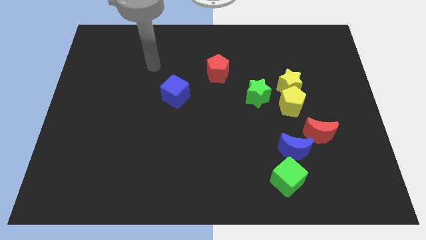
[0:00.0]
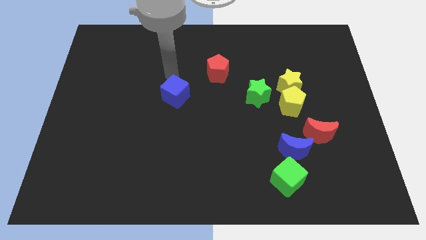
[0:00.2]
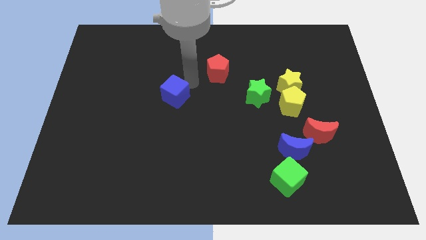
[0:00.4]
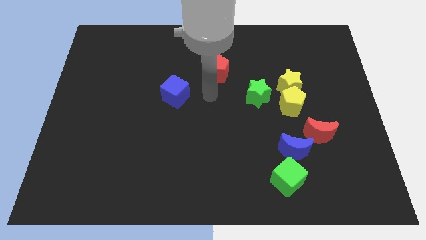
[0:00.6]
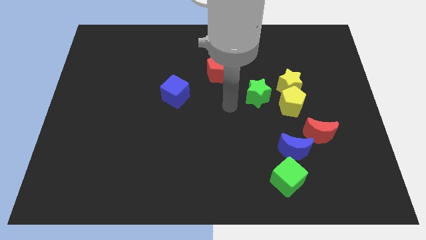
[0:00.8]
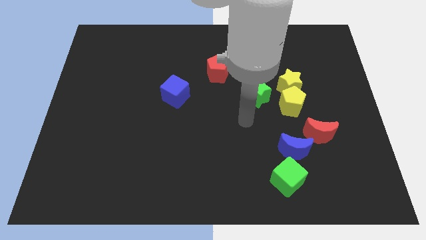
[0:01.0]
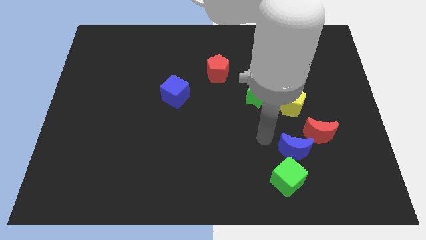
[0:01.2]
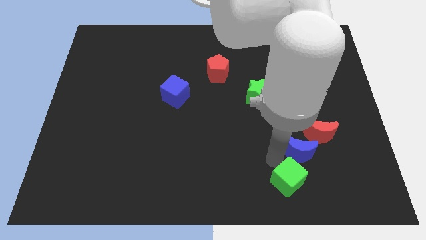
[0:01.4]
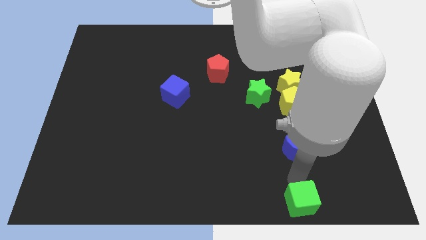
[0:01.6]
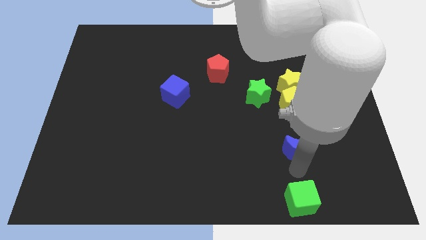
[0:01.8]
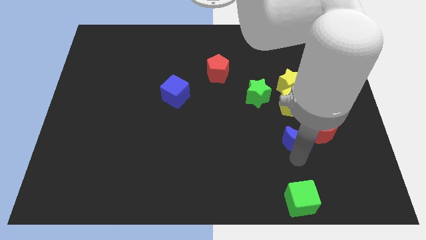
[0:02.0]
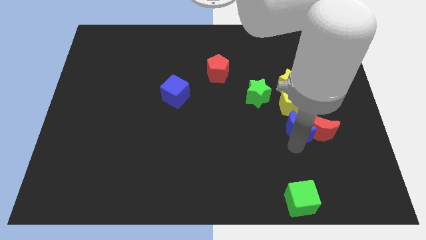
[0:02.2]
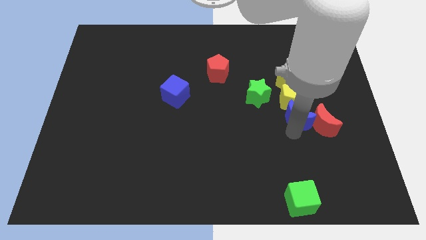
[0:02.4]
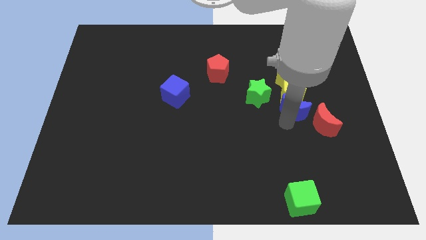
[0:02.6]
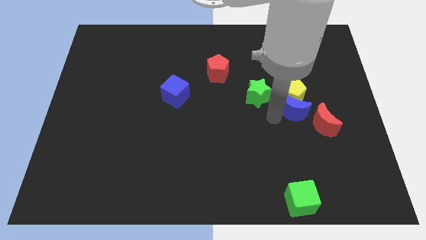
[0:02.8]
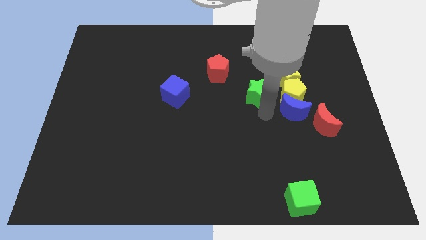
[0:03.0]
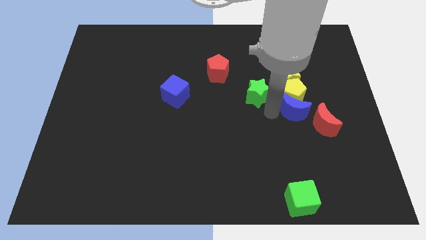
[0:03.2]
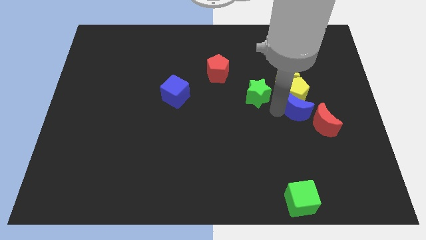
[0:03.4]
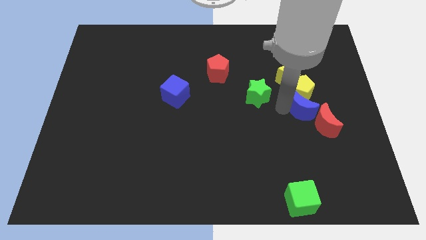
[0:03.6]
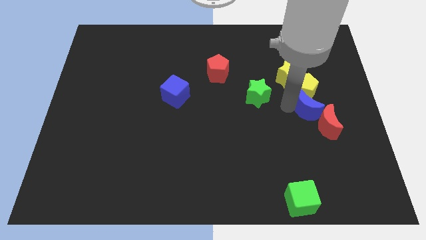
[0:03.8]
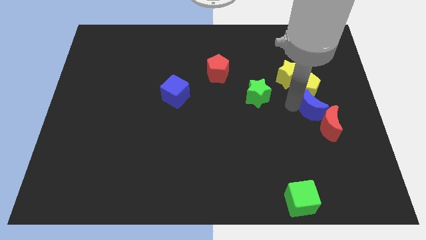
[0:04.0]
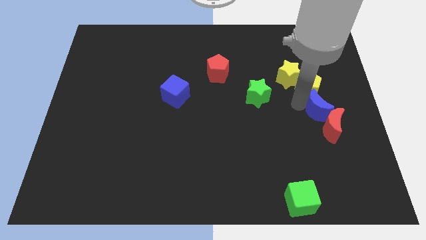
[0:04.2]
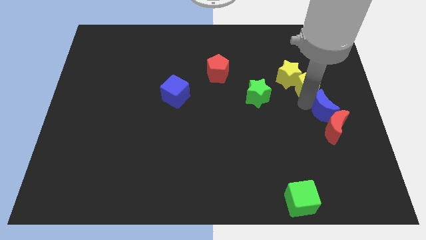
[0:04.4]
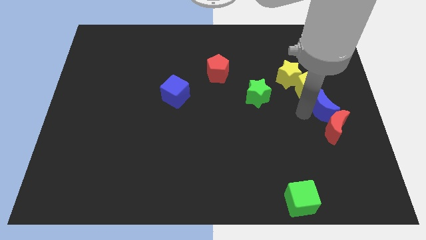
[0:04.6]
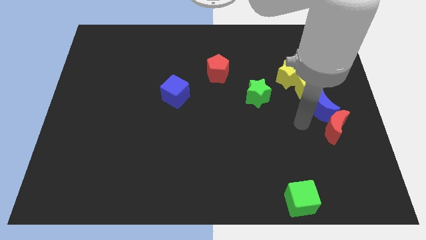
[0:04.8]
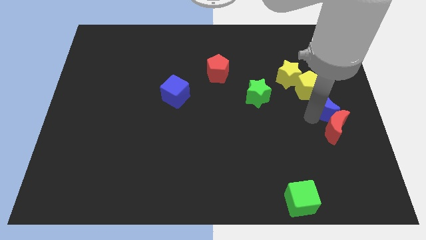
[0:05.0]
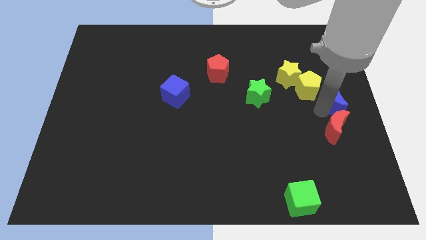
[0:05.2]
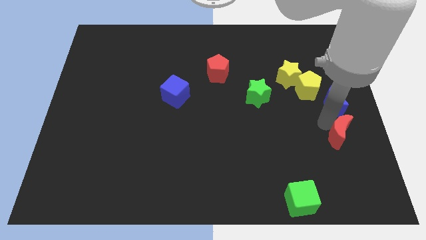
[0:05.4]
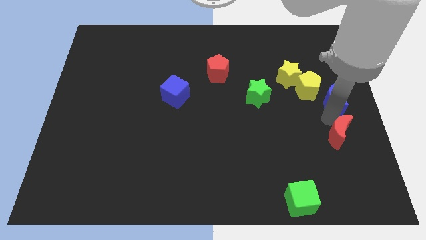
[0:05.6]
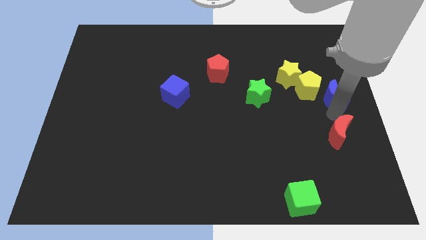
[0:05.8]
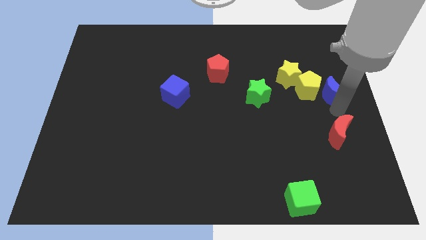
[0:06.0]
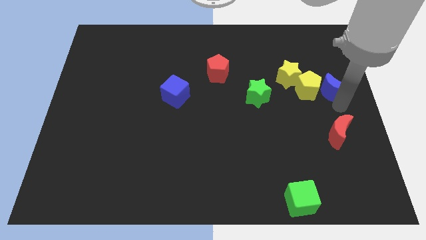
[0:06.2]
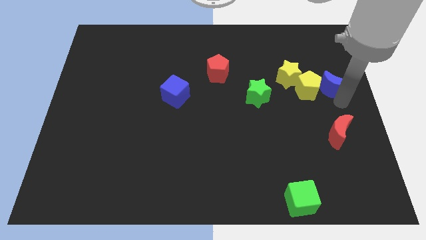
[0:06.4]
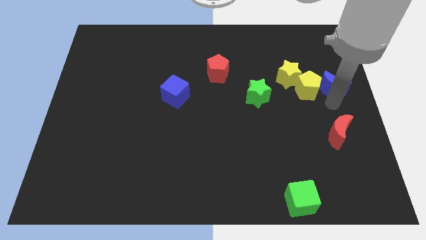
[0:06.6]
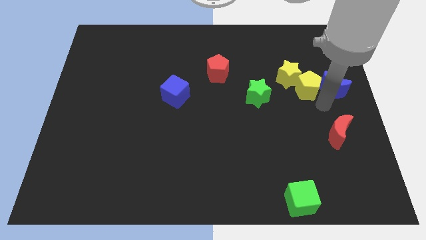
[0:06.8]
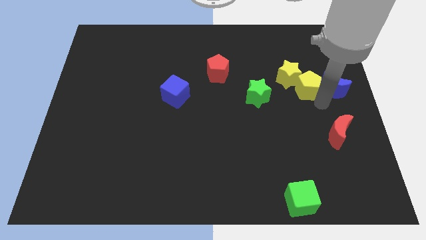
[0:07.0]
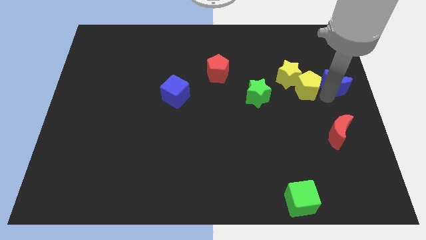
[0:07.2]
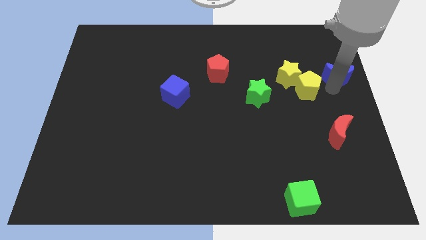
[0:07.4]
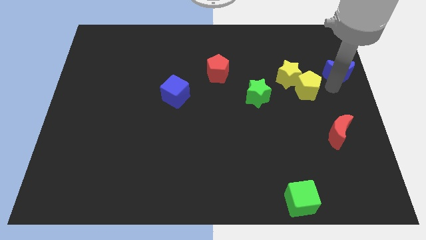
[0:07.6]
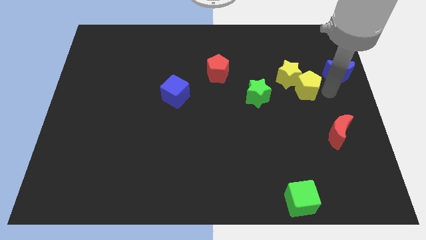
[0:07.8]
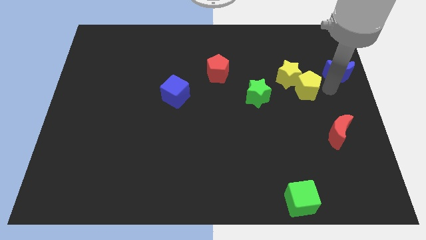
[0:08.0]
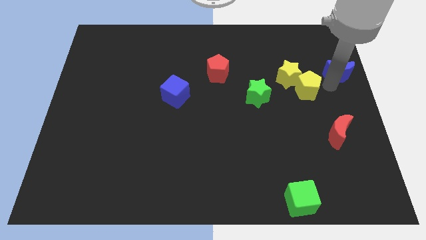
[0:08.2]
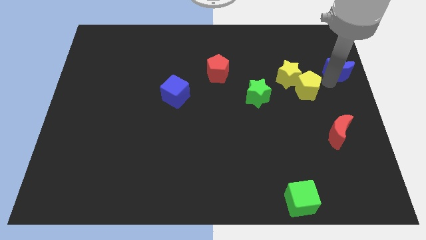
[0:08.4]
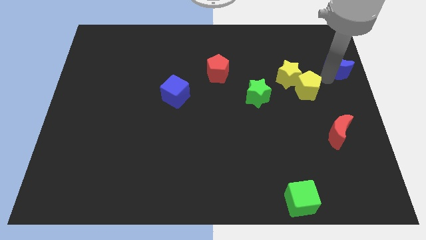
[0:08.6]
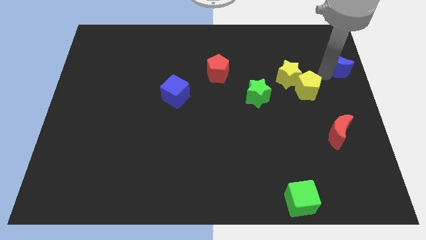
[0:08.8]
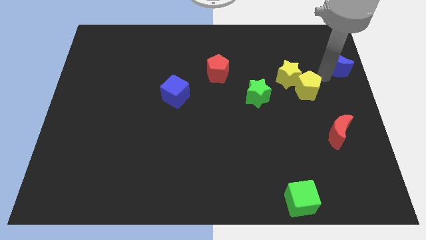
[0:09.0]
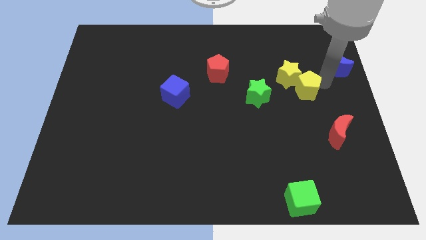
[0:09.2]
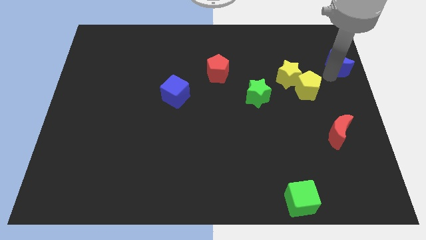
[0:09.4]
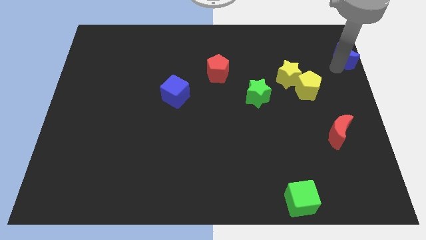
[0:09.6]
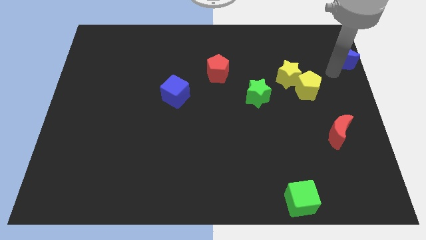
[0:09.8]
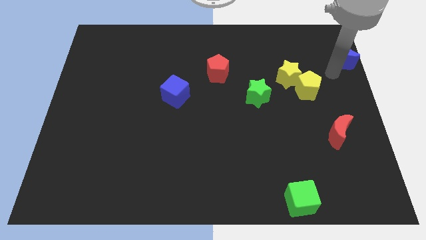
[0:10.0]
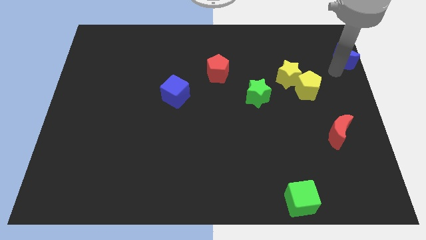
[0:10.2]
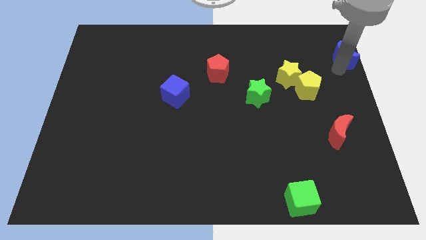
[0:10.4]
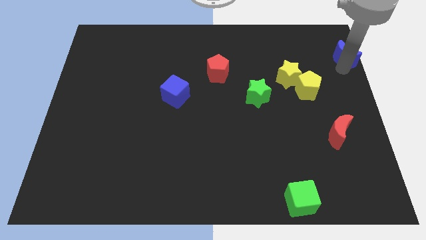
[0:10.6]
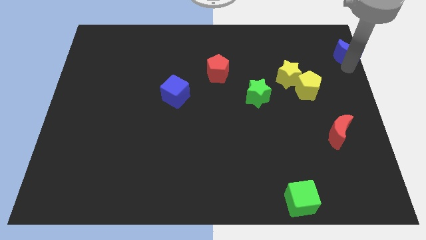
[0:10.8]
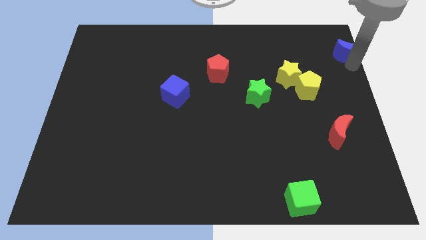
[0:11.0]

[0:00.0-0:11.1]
slide the blue moon to the top right
